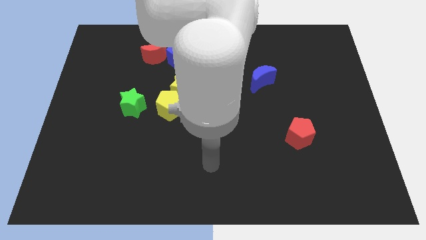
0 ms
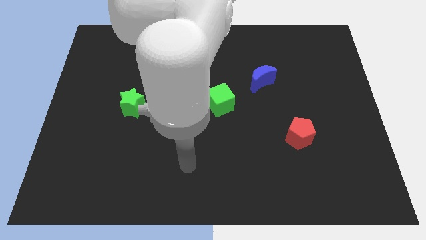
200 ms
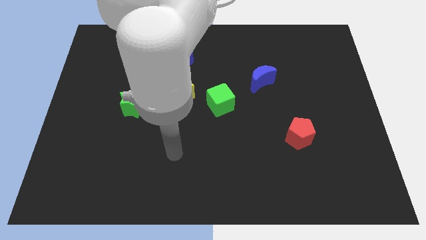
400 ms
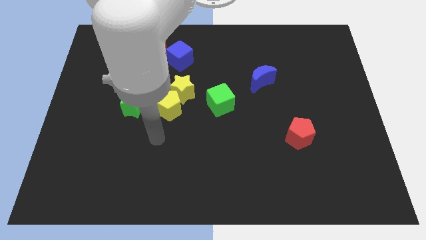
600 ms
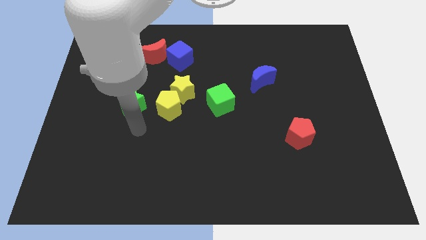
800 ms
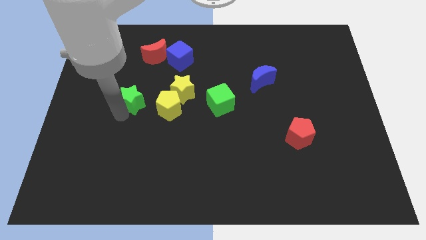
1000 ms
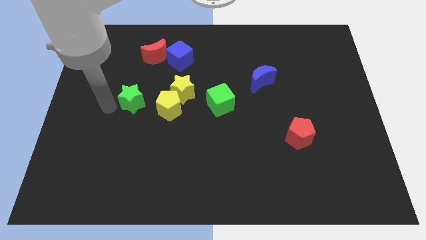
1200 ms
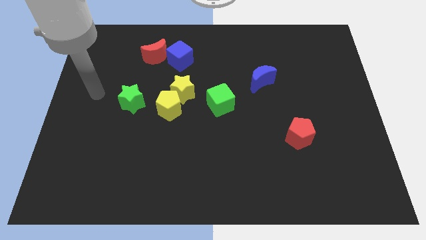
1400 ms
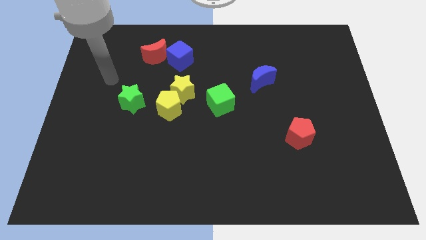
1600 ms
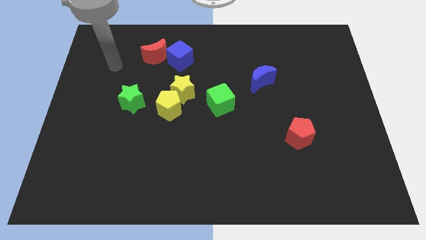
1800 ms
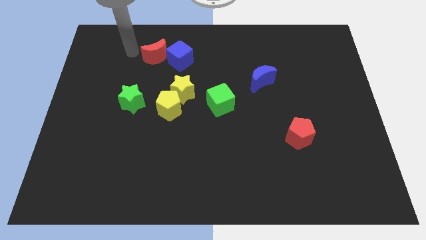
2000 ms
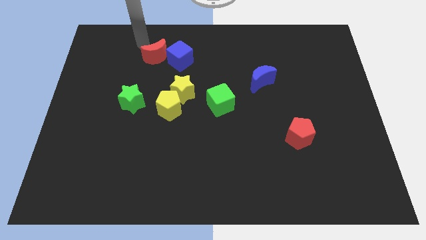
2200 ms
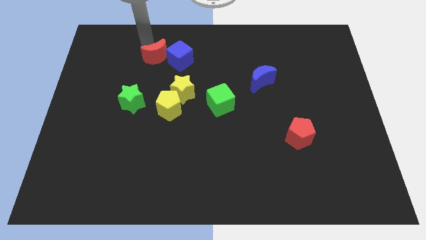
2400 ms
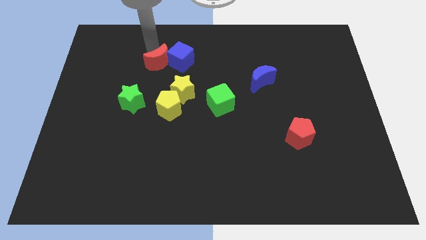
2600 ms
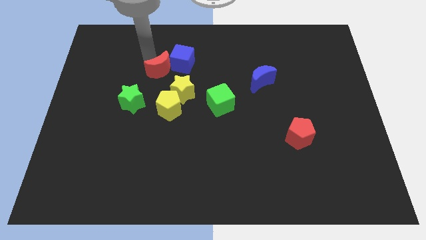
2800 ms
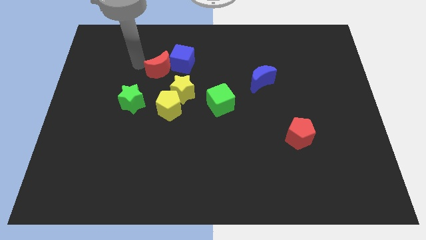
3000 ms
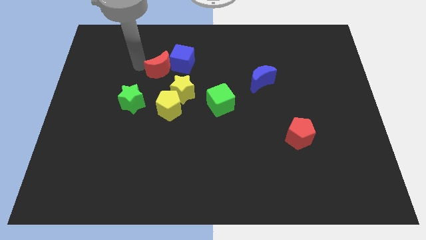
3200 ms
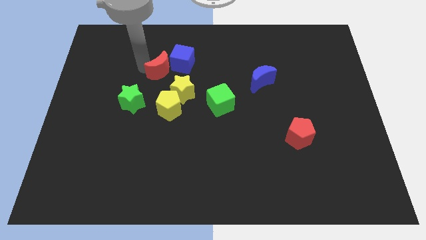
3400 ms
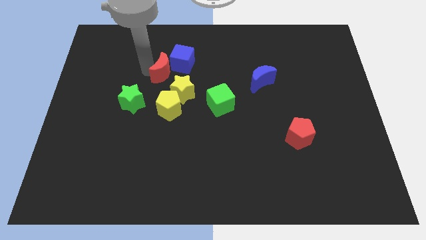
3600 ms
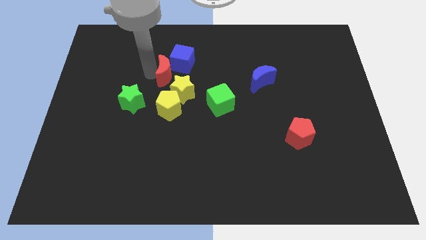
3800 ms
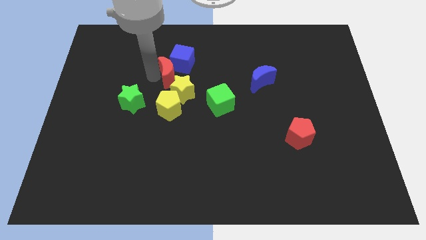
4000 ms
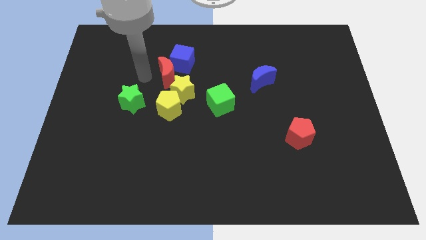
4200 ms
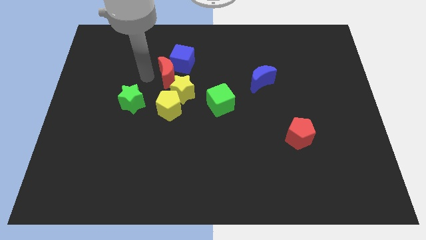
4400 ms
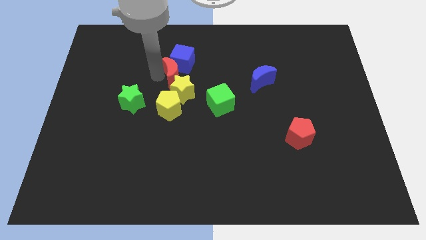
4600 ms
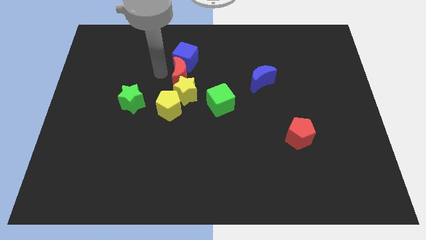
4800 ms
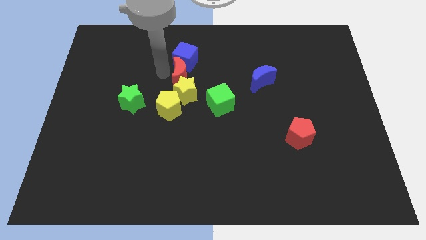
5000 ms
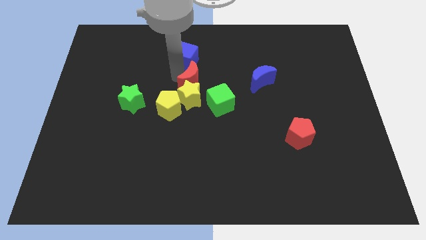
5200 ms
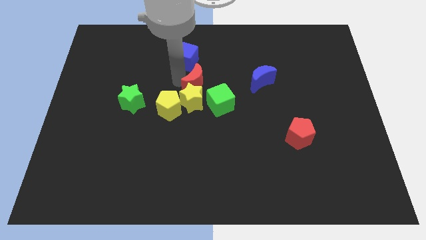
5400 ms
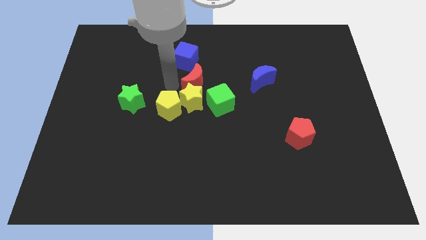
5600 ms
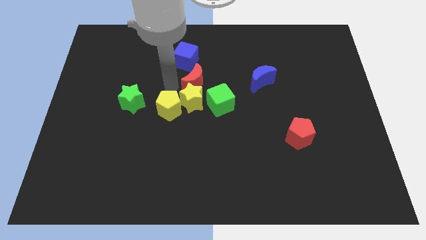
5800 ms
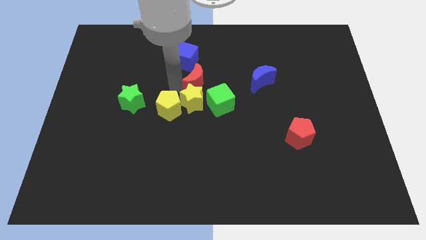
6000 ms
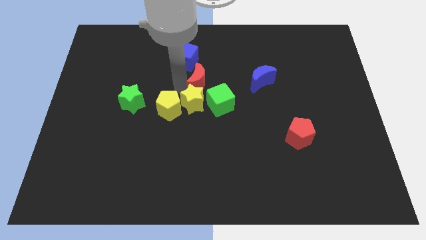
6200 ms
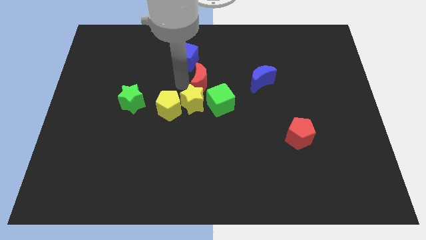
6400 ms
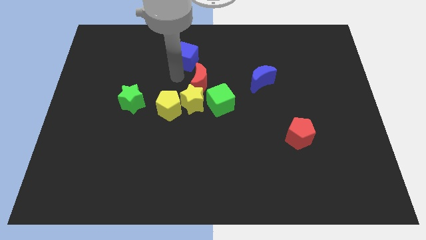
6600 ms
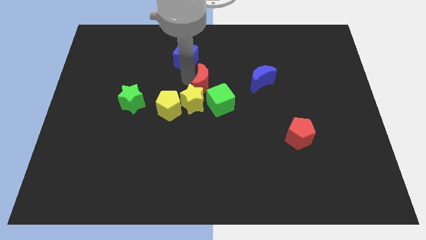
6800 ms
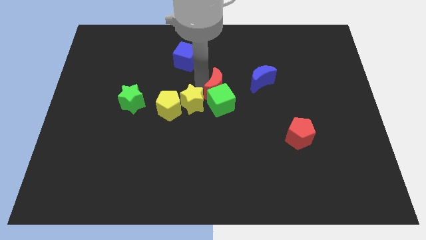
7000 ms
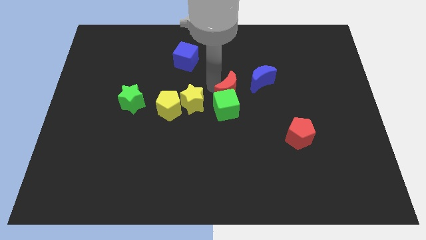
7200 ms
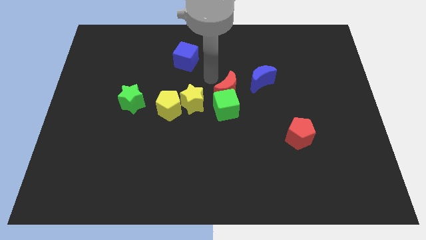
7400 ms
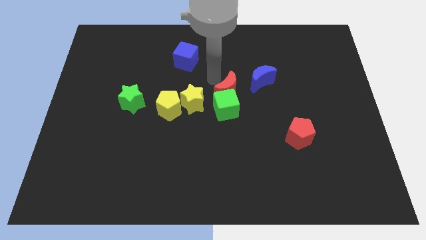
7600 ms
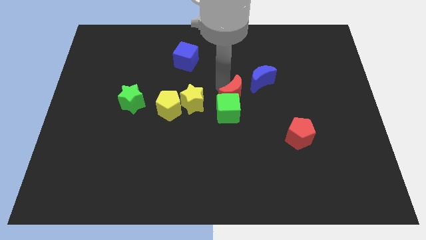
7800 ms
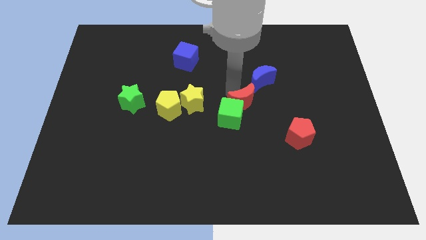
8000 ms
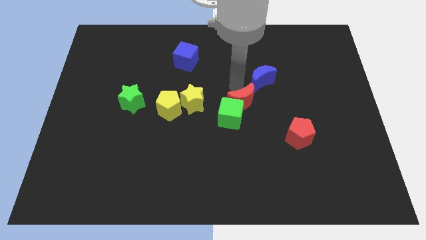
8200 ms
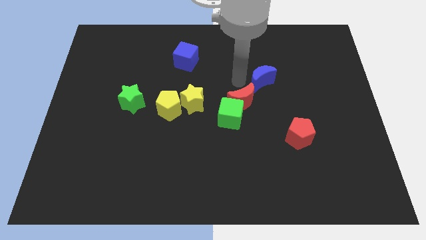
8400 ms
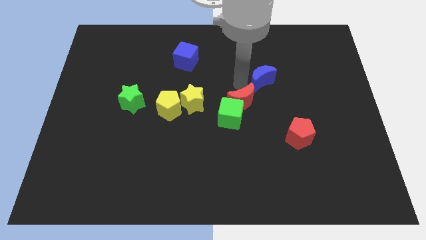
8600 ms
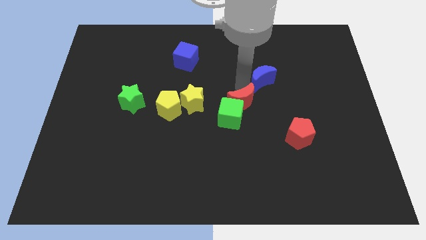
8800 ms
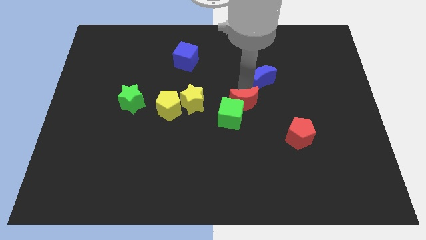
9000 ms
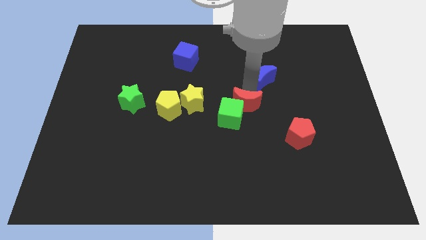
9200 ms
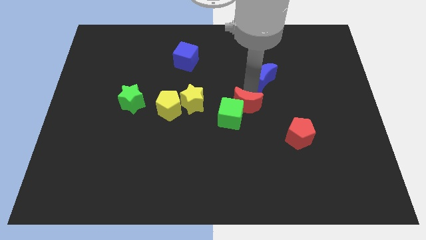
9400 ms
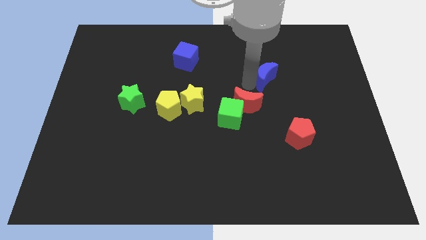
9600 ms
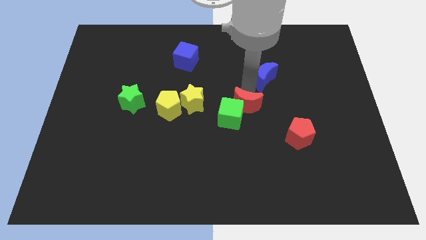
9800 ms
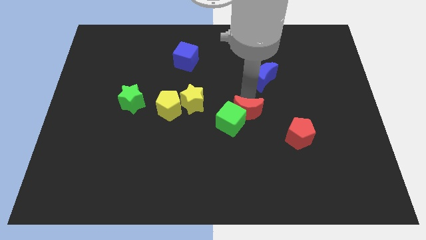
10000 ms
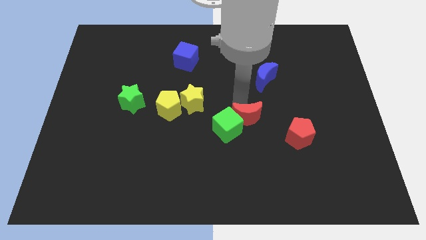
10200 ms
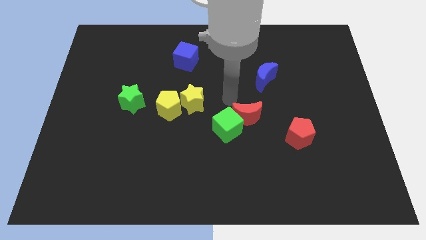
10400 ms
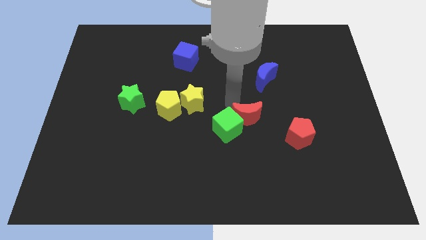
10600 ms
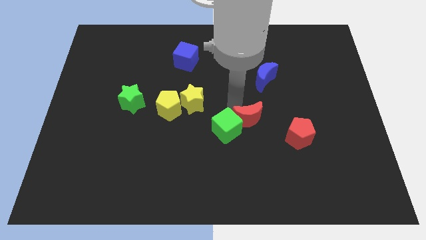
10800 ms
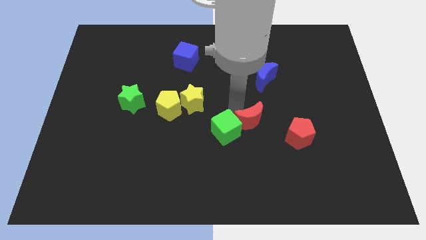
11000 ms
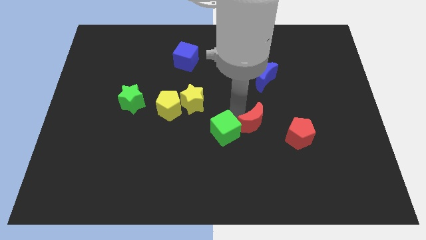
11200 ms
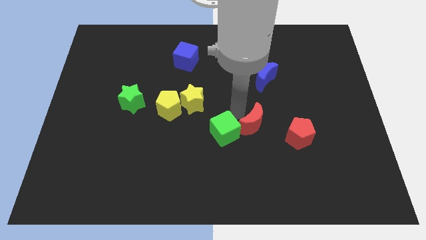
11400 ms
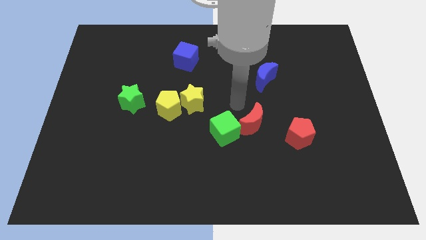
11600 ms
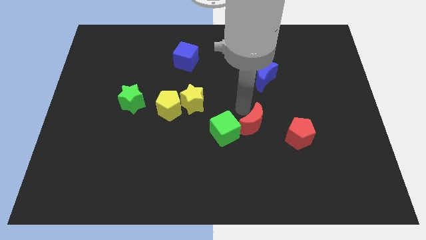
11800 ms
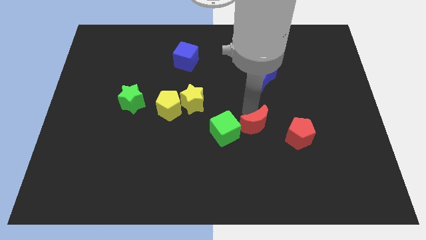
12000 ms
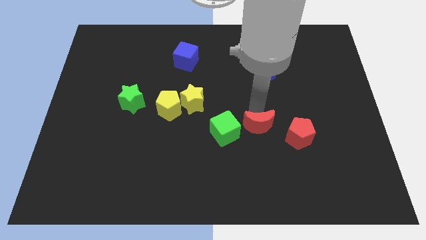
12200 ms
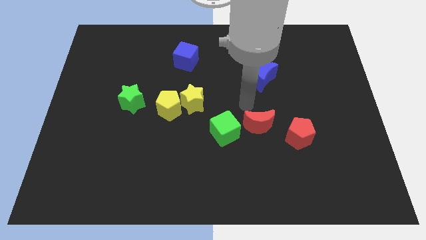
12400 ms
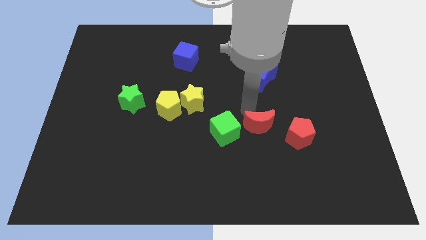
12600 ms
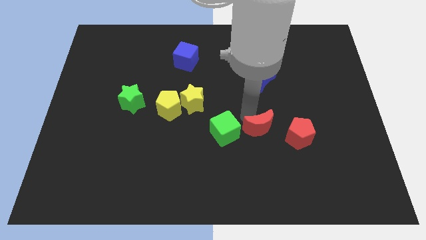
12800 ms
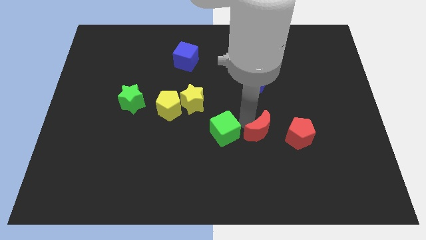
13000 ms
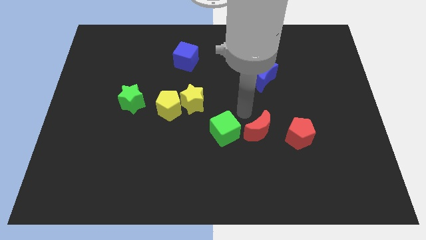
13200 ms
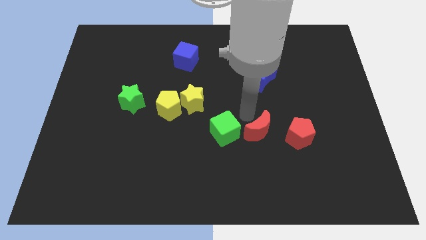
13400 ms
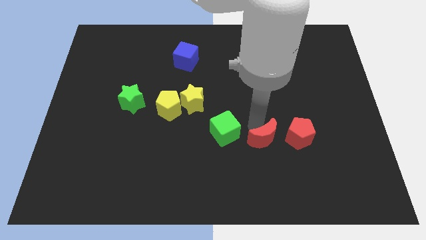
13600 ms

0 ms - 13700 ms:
push the red moon diagonally down and to the left of the red pentagon

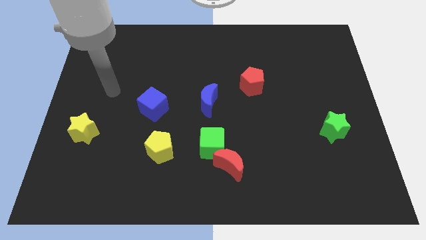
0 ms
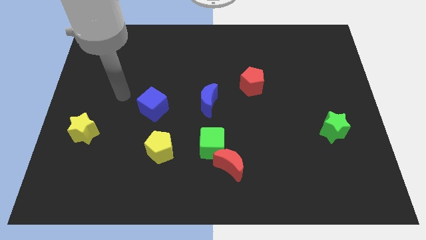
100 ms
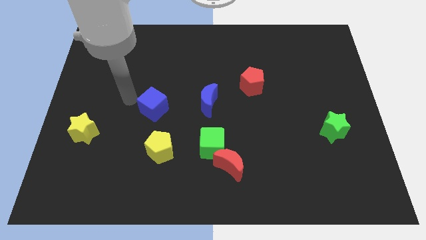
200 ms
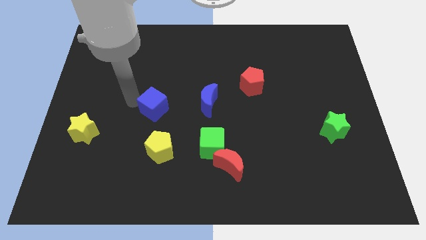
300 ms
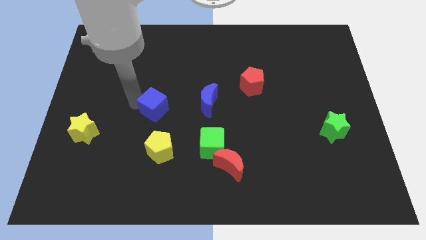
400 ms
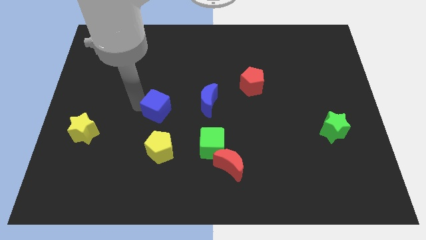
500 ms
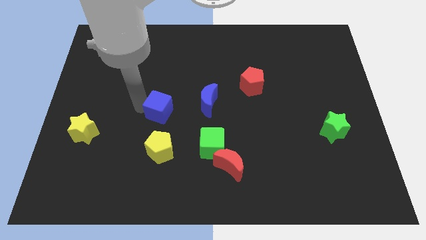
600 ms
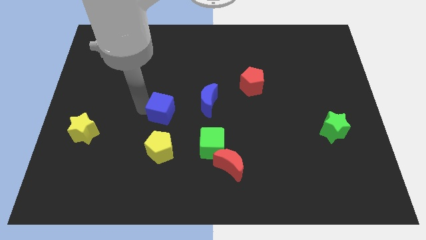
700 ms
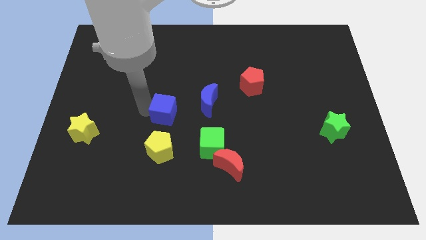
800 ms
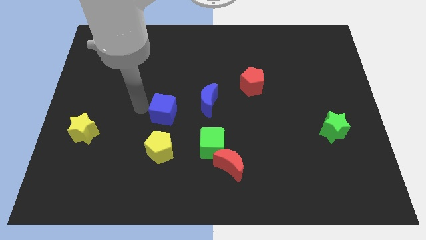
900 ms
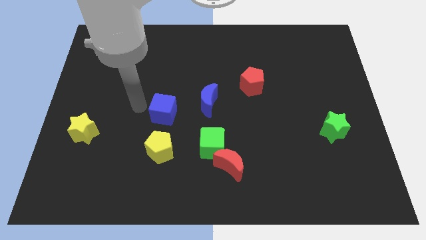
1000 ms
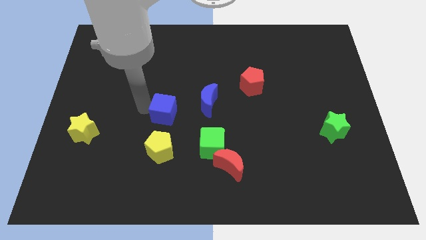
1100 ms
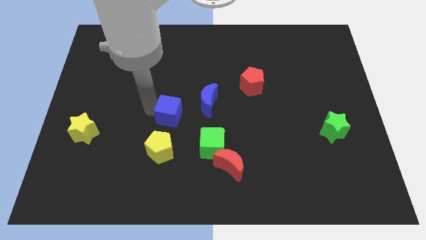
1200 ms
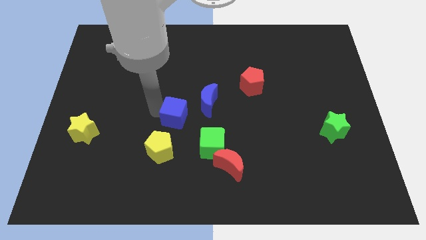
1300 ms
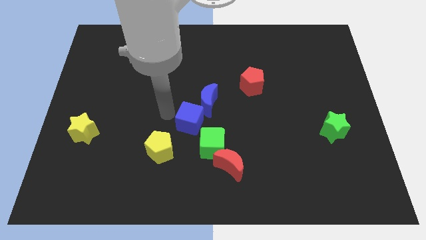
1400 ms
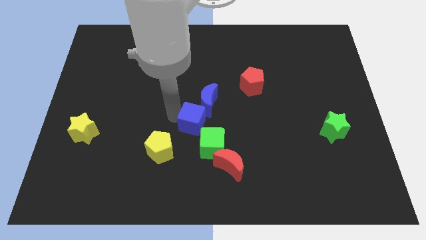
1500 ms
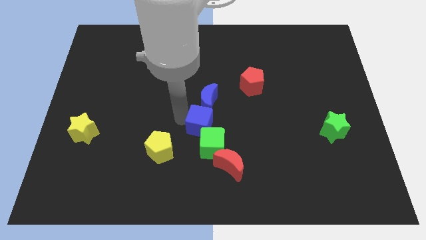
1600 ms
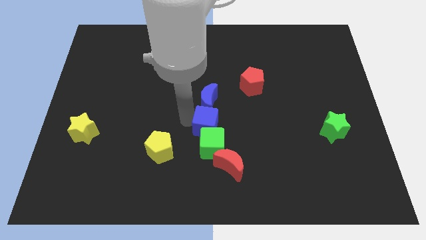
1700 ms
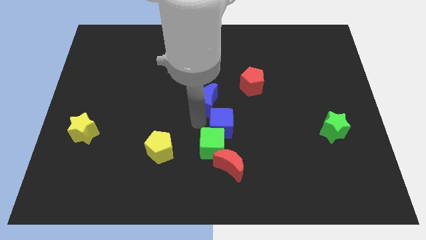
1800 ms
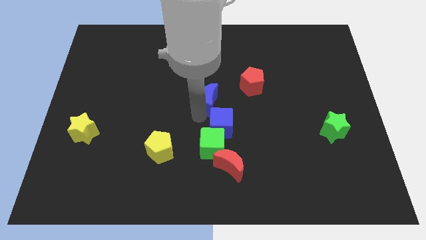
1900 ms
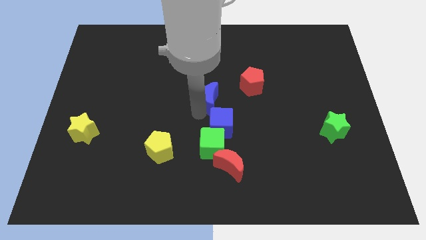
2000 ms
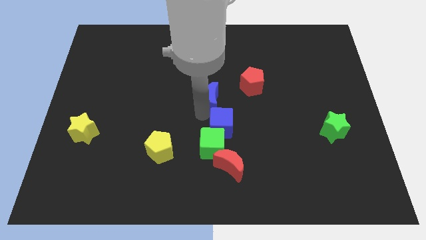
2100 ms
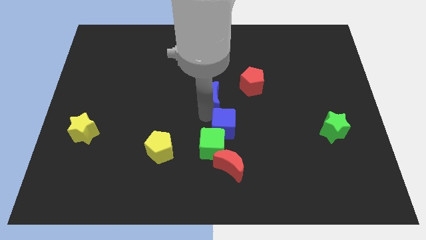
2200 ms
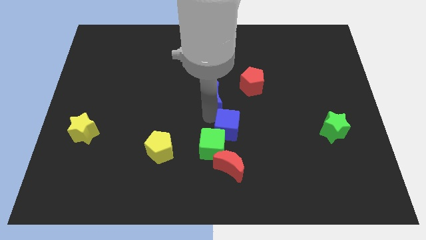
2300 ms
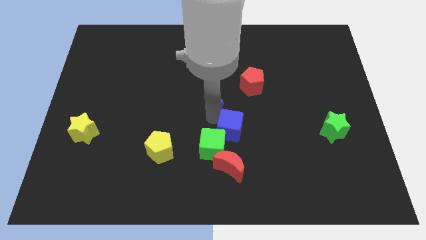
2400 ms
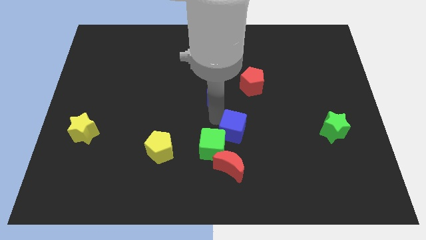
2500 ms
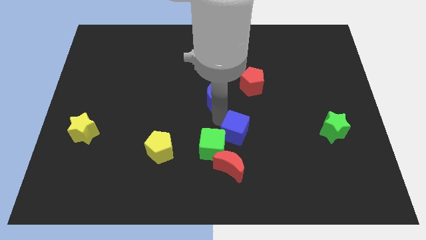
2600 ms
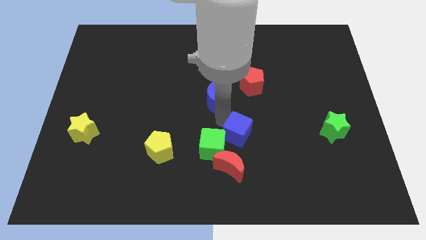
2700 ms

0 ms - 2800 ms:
push the blue cube to the top right of the red moon
